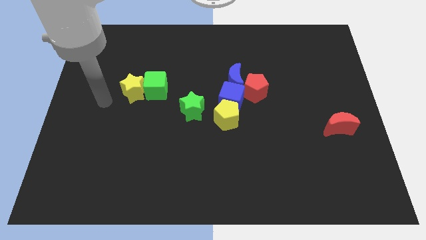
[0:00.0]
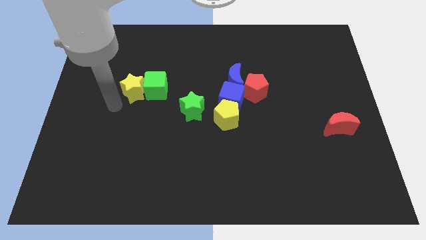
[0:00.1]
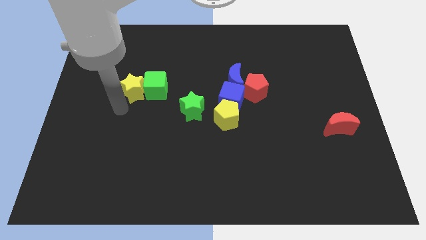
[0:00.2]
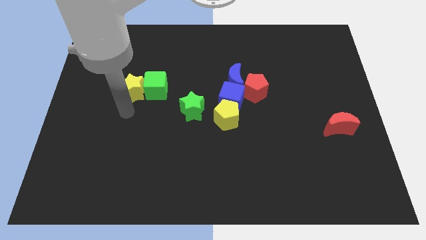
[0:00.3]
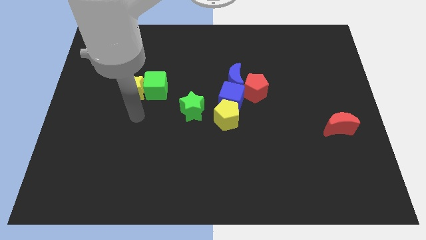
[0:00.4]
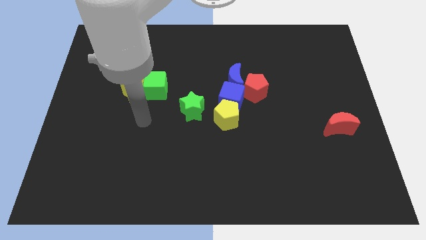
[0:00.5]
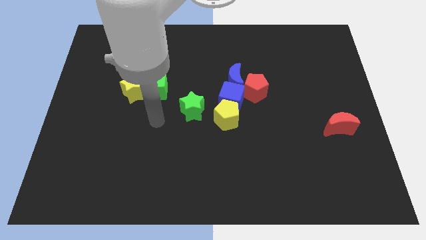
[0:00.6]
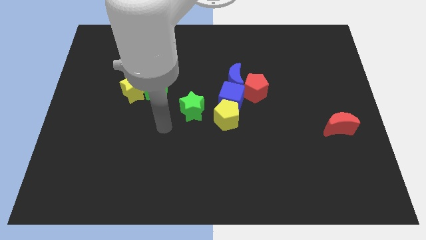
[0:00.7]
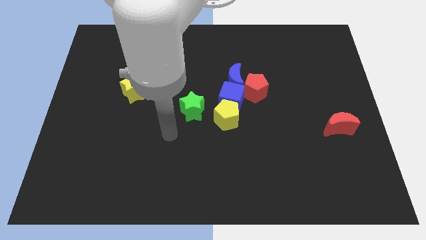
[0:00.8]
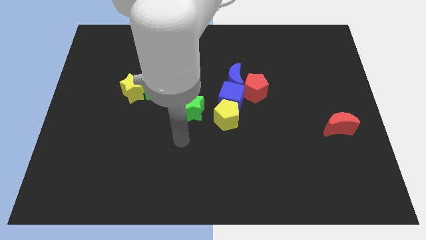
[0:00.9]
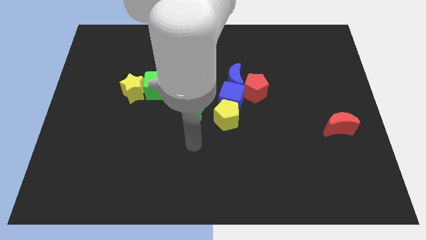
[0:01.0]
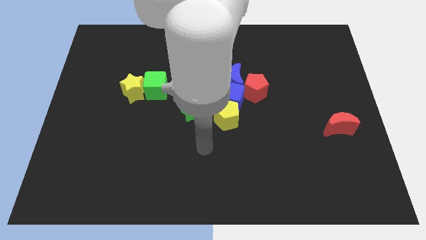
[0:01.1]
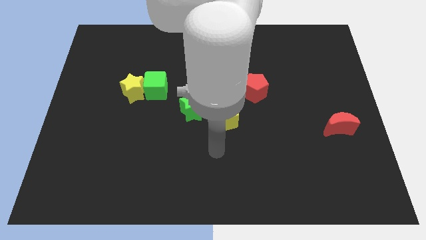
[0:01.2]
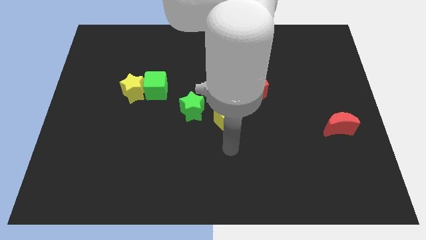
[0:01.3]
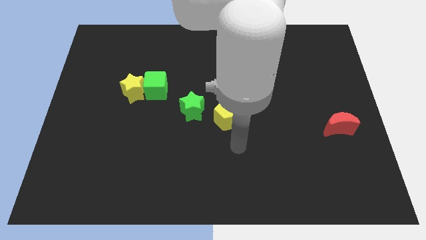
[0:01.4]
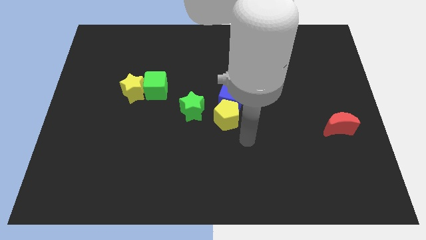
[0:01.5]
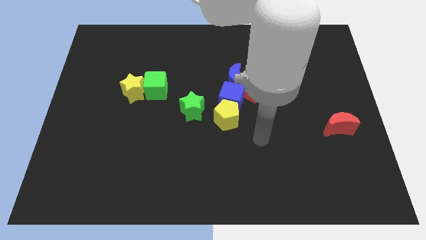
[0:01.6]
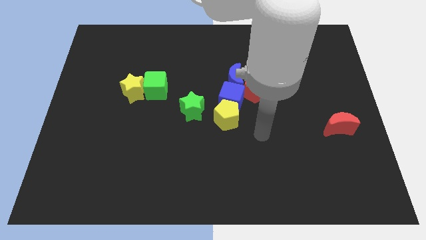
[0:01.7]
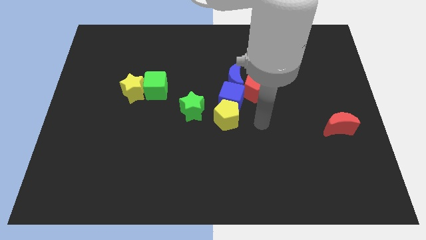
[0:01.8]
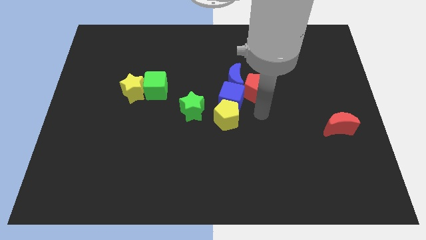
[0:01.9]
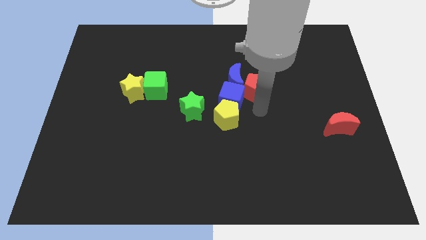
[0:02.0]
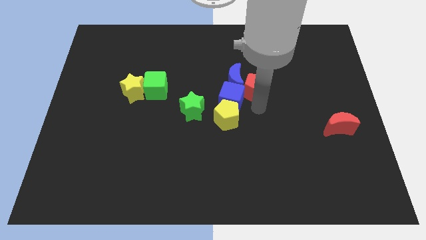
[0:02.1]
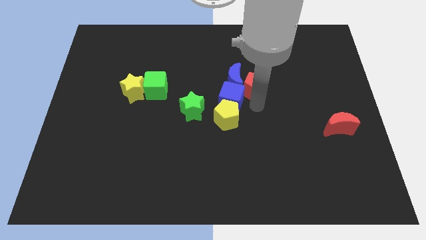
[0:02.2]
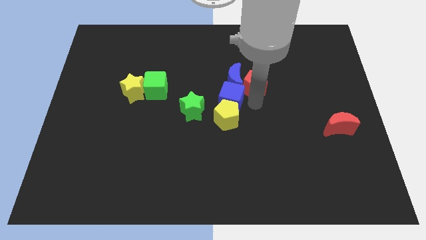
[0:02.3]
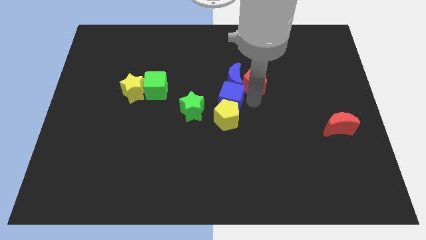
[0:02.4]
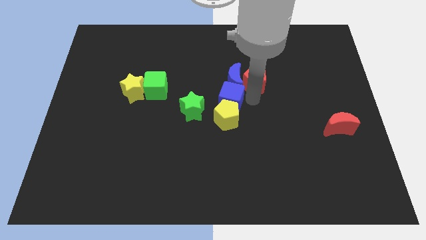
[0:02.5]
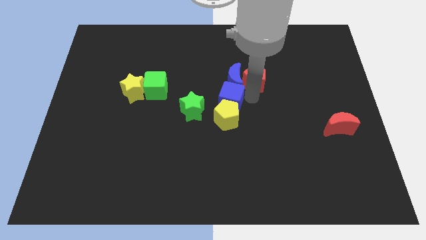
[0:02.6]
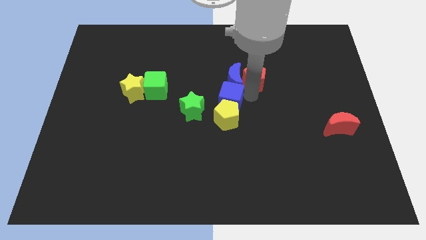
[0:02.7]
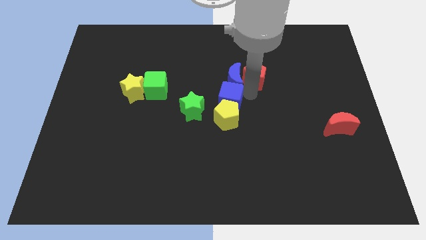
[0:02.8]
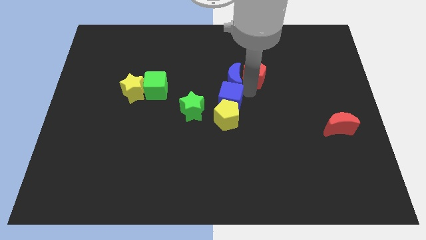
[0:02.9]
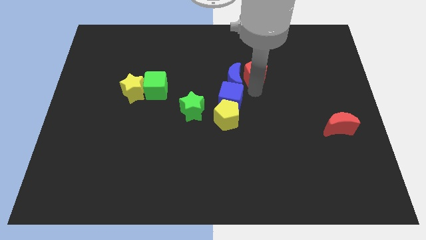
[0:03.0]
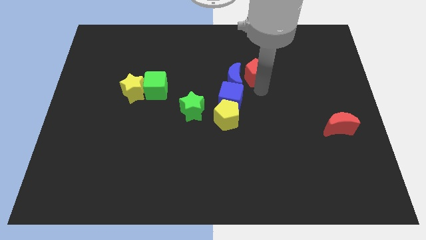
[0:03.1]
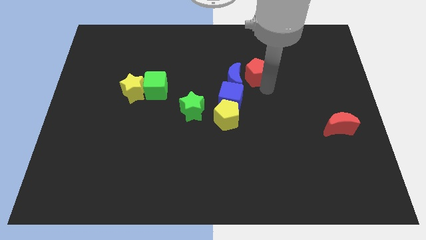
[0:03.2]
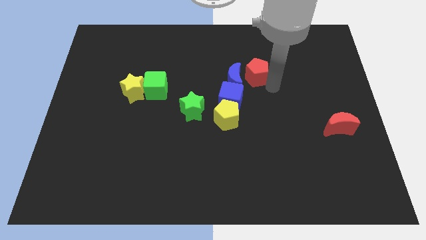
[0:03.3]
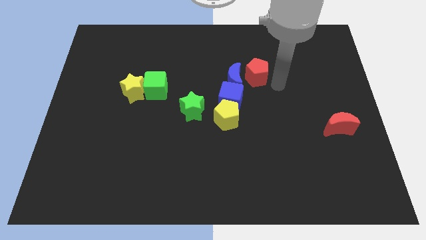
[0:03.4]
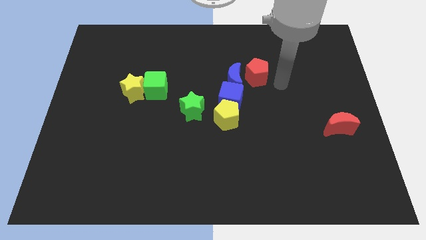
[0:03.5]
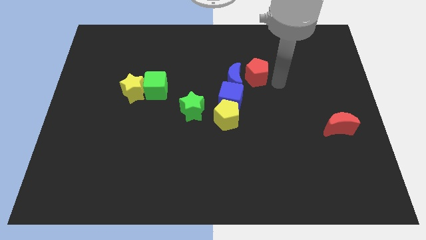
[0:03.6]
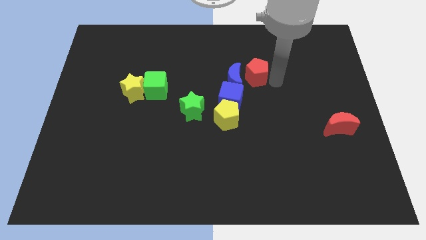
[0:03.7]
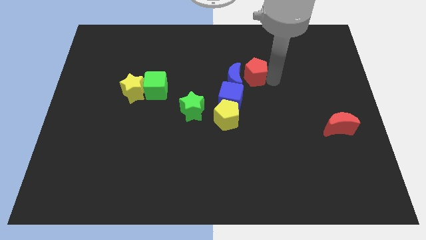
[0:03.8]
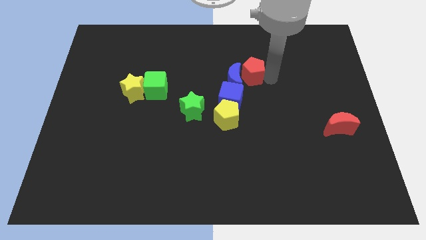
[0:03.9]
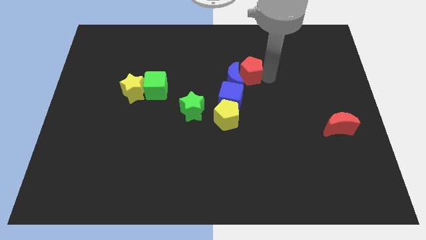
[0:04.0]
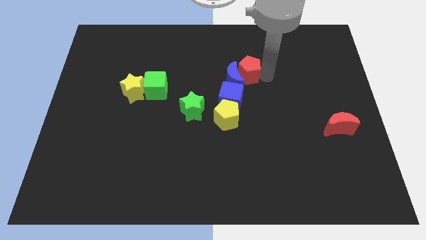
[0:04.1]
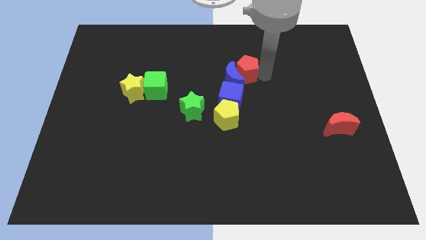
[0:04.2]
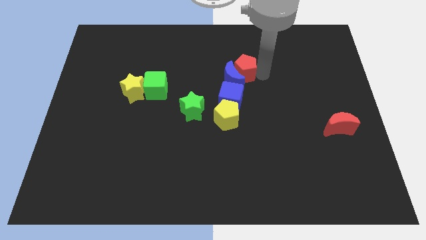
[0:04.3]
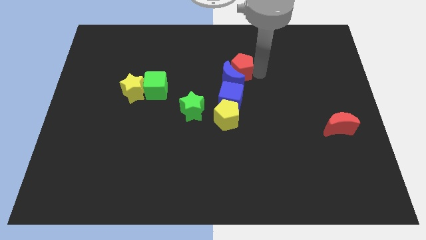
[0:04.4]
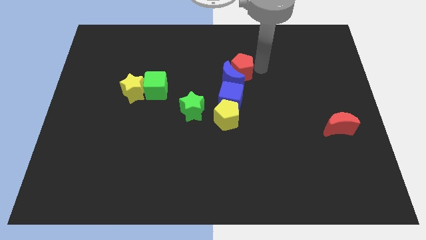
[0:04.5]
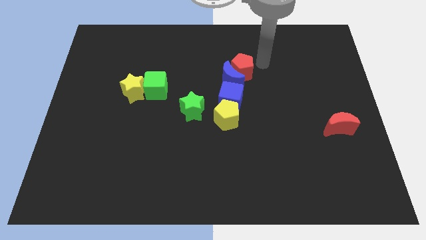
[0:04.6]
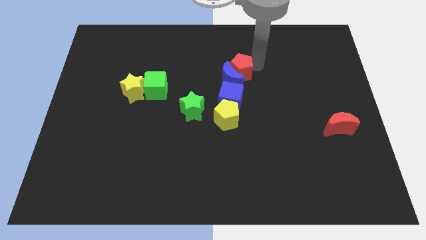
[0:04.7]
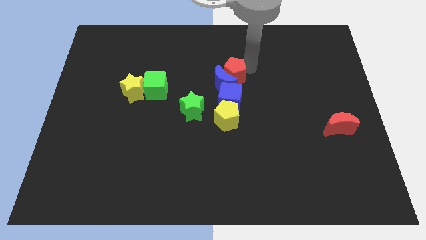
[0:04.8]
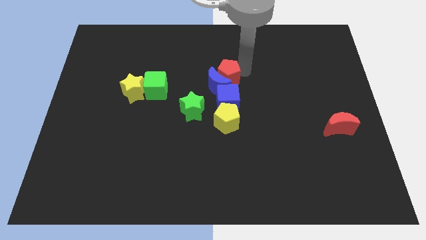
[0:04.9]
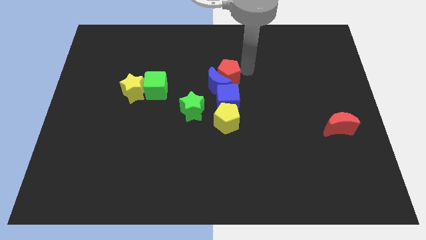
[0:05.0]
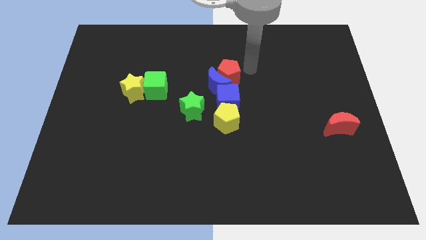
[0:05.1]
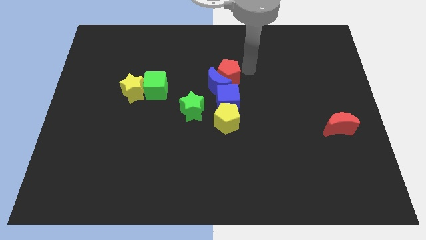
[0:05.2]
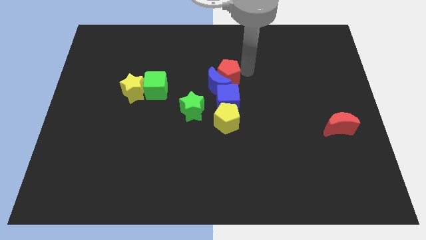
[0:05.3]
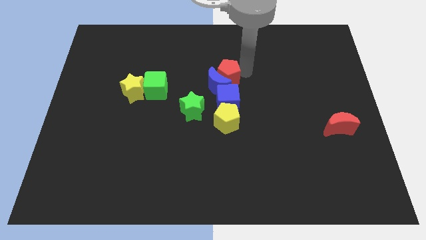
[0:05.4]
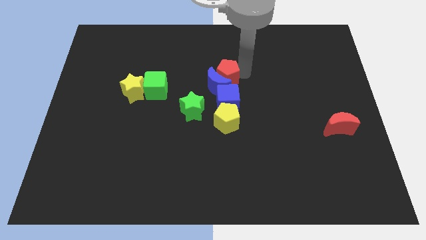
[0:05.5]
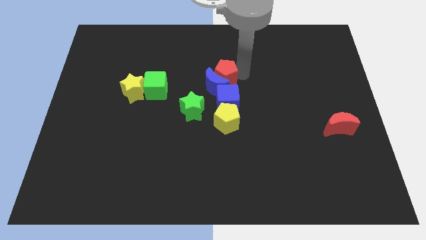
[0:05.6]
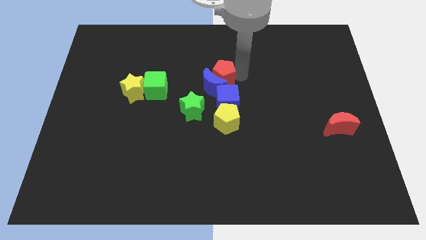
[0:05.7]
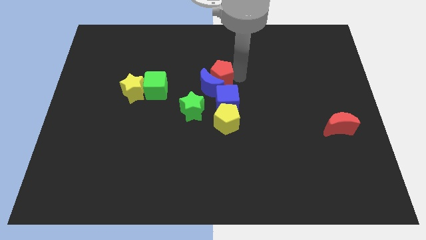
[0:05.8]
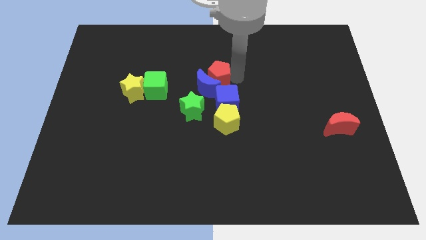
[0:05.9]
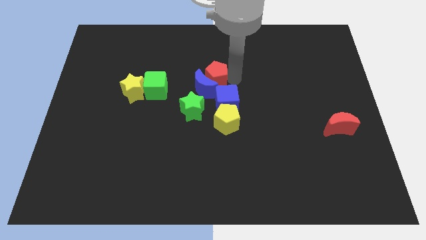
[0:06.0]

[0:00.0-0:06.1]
push the red pentagon right of the green cube

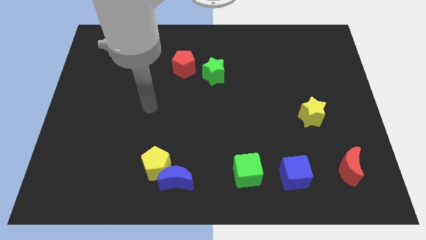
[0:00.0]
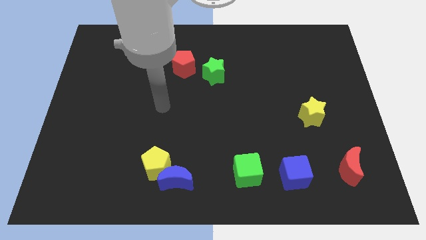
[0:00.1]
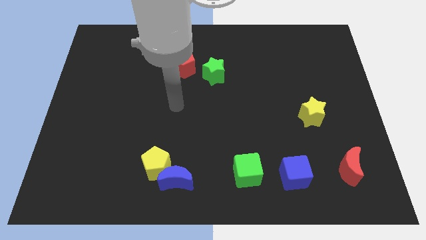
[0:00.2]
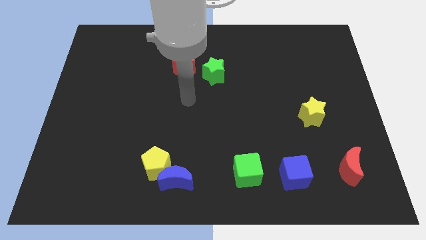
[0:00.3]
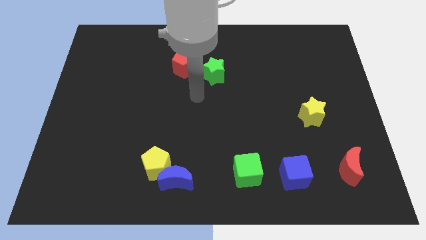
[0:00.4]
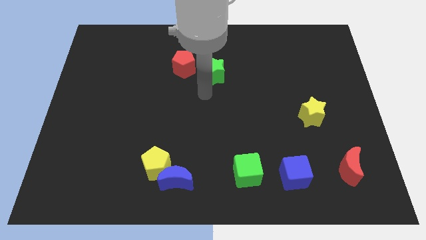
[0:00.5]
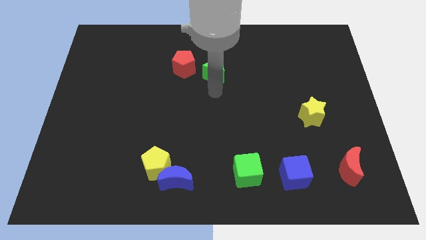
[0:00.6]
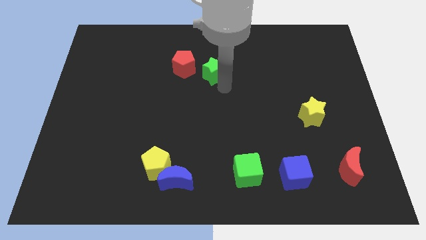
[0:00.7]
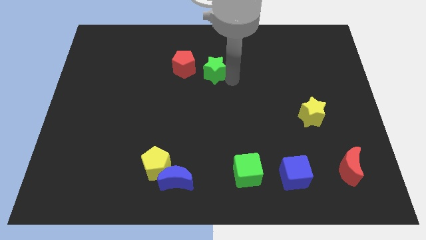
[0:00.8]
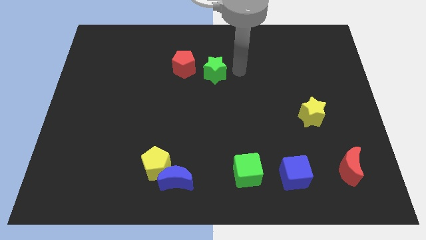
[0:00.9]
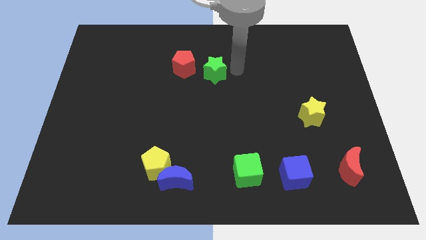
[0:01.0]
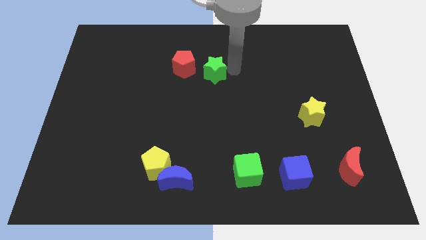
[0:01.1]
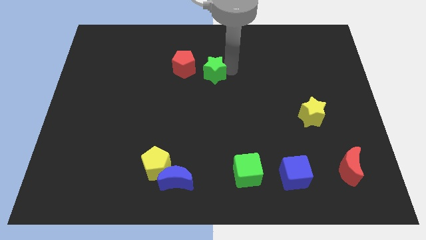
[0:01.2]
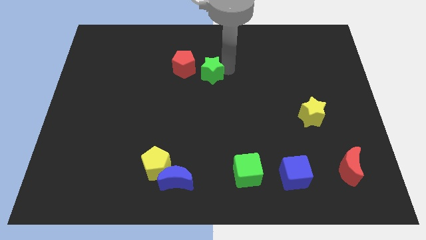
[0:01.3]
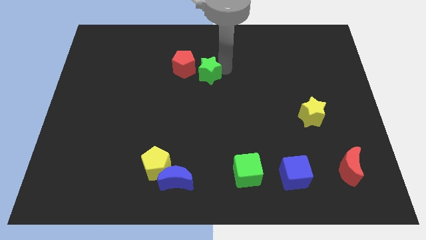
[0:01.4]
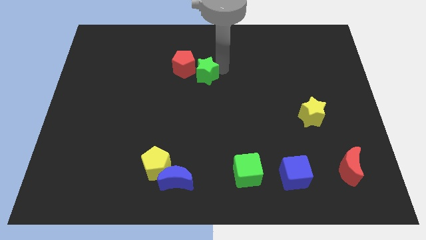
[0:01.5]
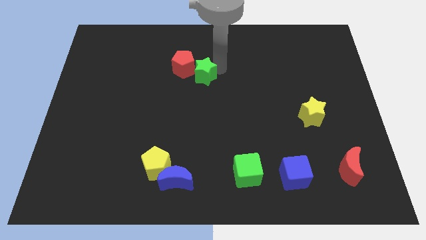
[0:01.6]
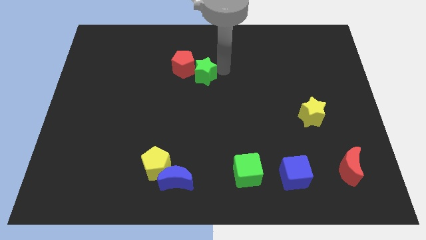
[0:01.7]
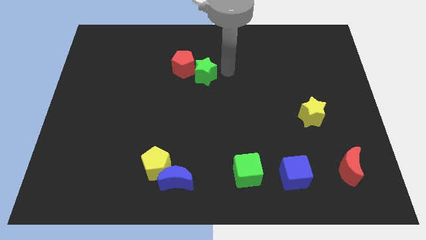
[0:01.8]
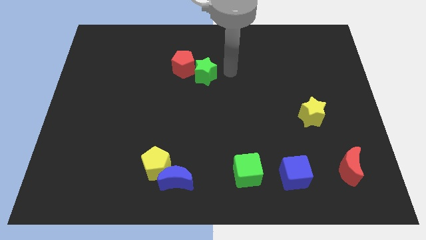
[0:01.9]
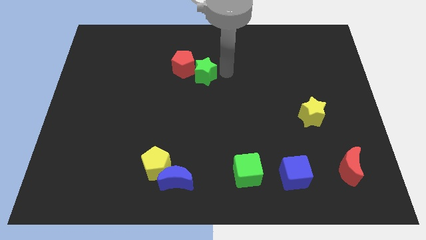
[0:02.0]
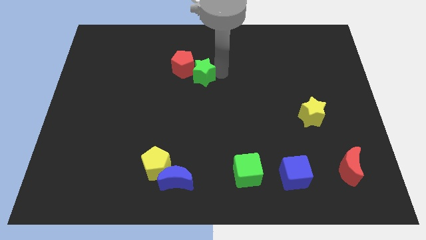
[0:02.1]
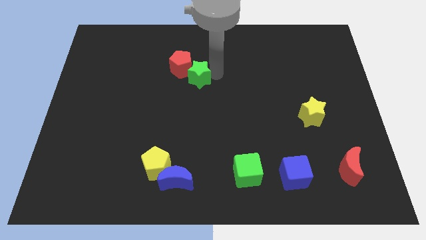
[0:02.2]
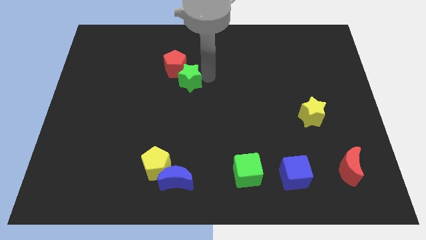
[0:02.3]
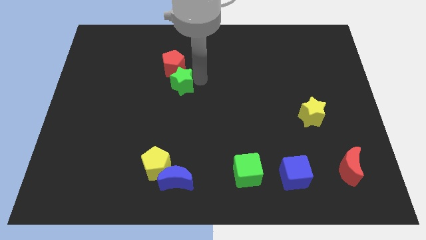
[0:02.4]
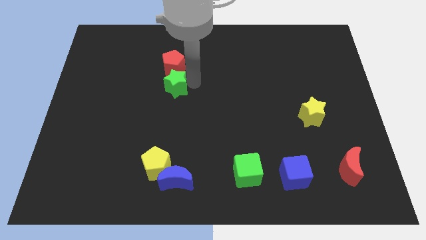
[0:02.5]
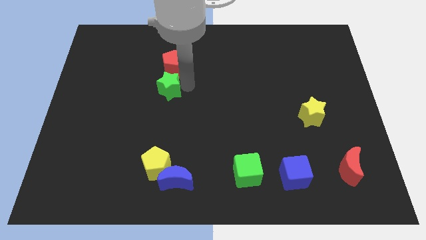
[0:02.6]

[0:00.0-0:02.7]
put the green star to the bottom left side of the red pentagon
